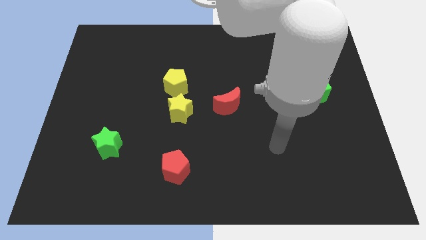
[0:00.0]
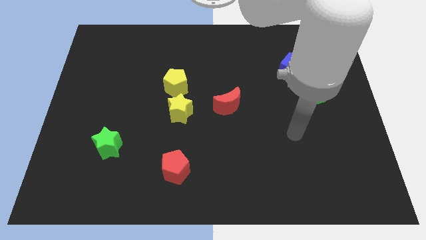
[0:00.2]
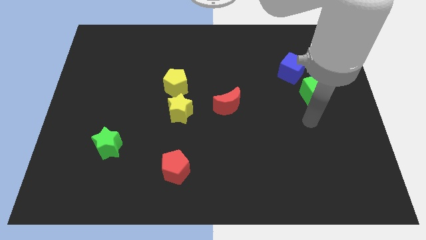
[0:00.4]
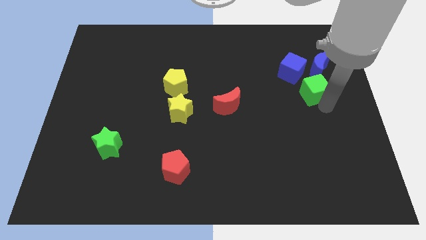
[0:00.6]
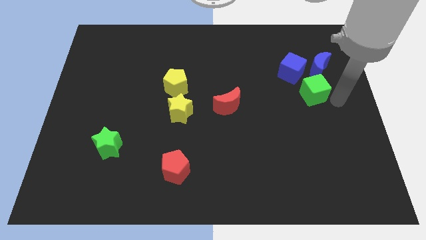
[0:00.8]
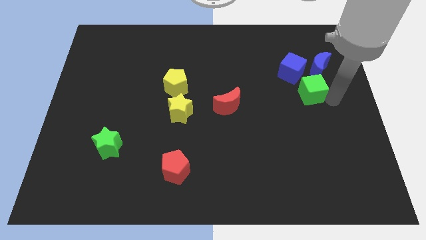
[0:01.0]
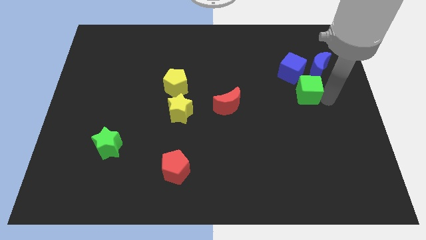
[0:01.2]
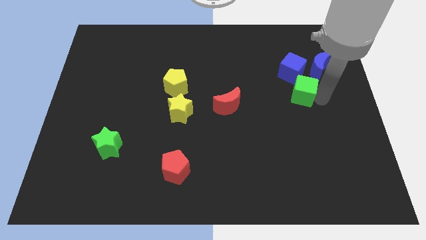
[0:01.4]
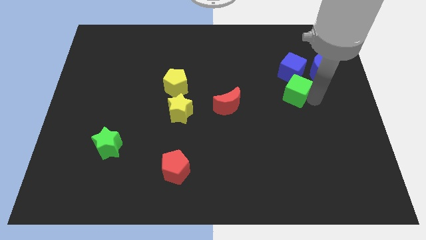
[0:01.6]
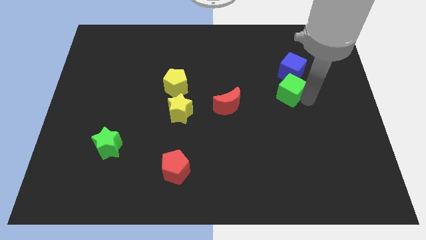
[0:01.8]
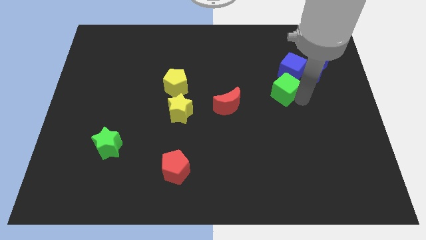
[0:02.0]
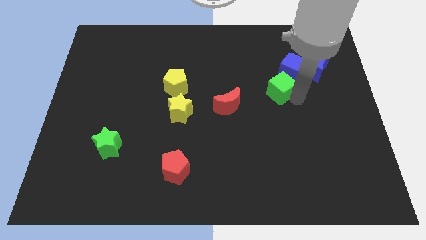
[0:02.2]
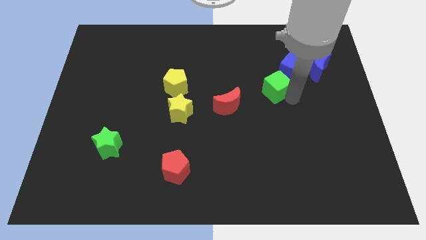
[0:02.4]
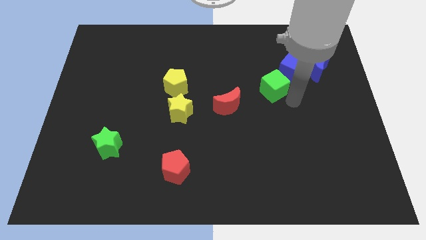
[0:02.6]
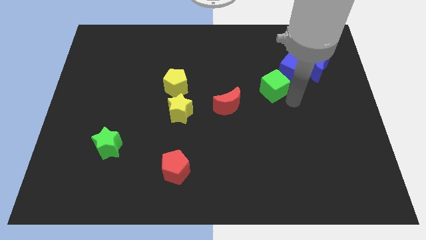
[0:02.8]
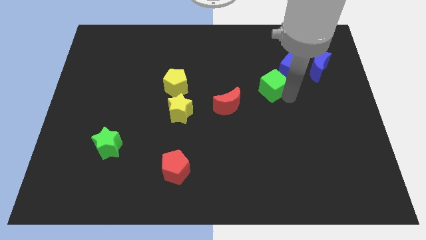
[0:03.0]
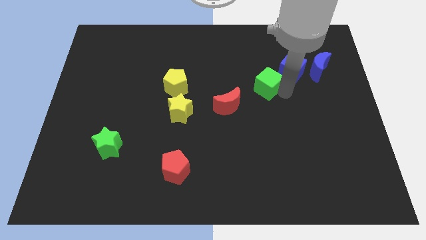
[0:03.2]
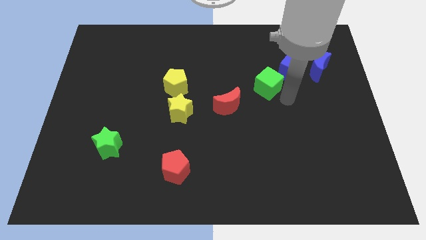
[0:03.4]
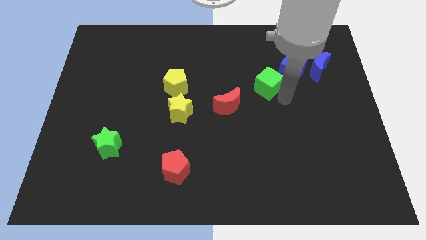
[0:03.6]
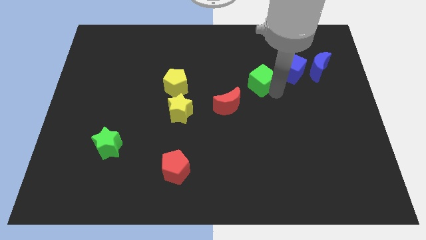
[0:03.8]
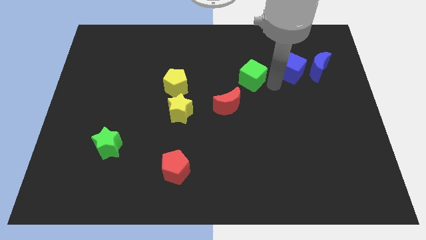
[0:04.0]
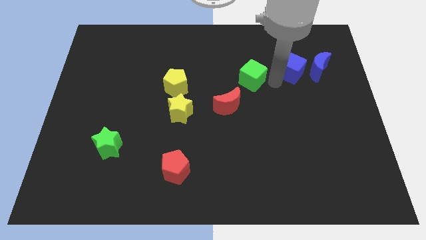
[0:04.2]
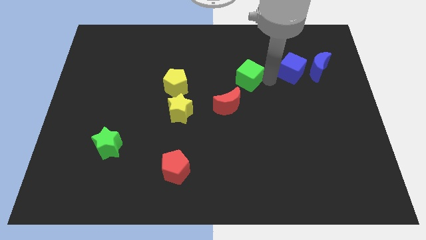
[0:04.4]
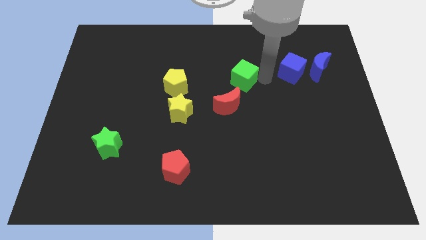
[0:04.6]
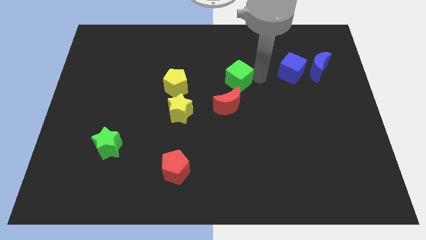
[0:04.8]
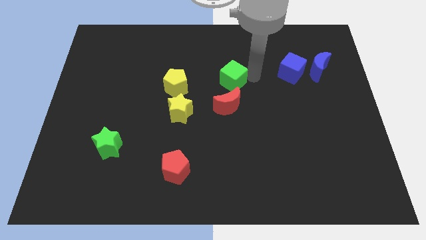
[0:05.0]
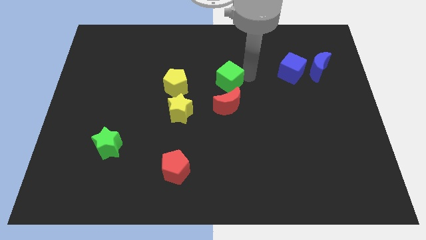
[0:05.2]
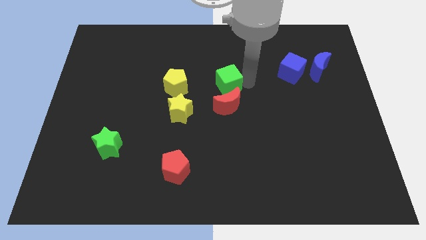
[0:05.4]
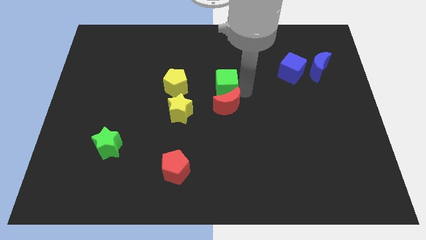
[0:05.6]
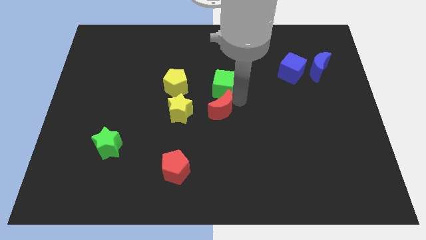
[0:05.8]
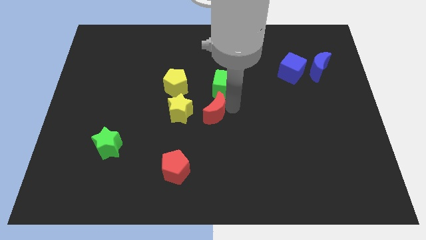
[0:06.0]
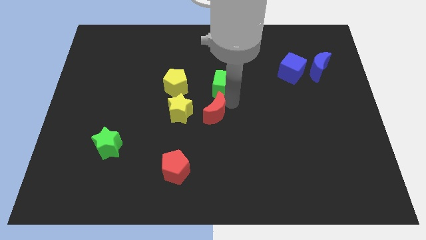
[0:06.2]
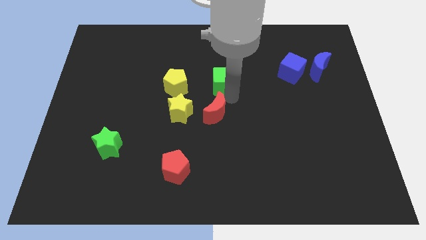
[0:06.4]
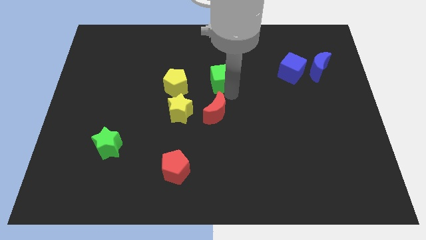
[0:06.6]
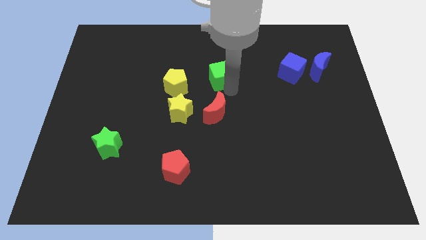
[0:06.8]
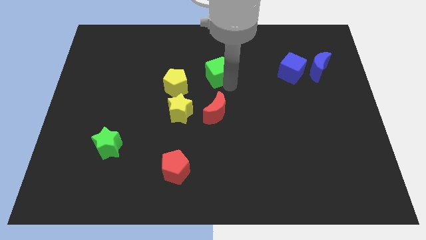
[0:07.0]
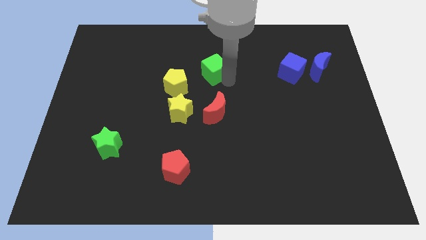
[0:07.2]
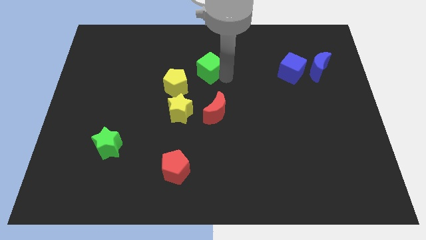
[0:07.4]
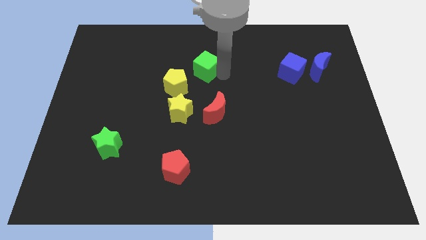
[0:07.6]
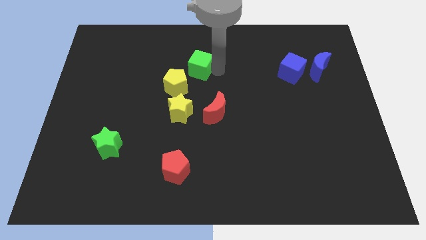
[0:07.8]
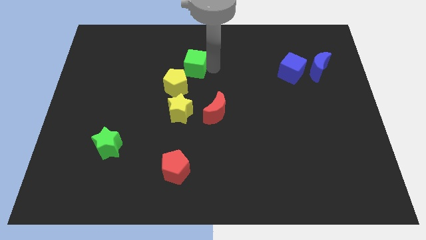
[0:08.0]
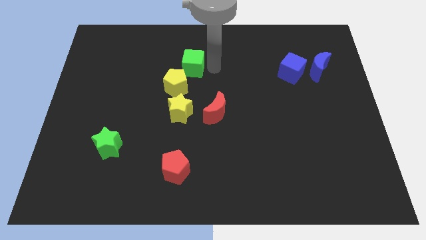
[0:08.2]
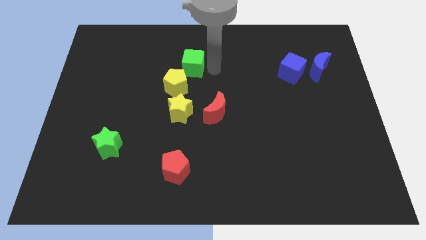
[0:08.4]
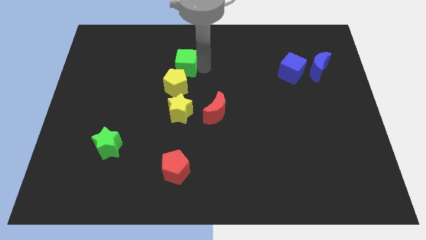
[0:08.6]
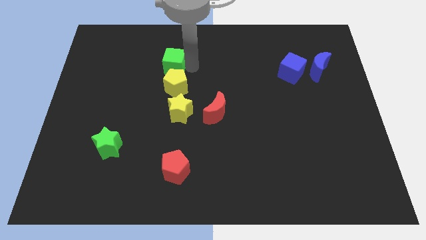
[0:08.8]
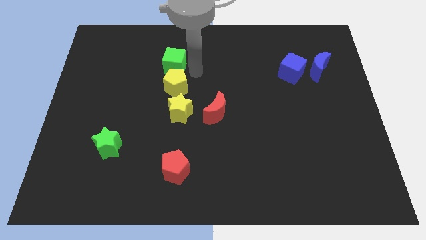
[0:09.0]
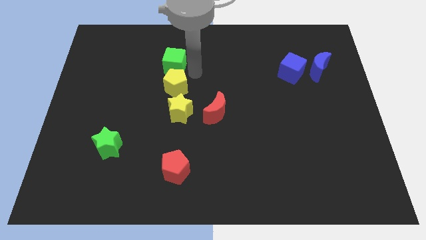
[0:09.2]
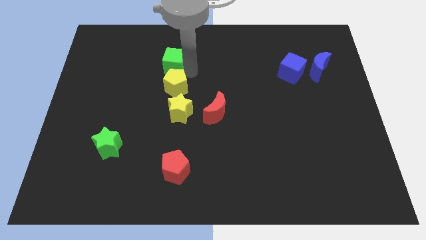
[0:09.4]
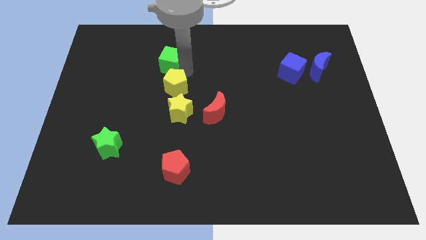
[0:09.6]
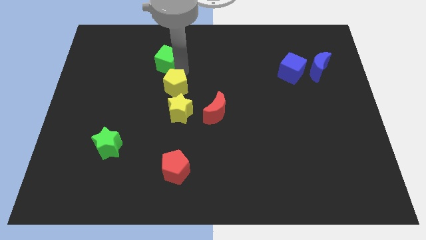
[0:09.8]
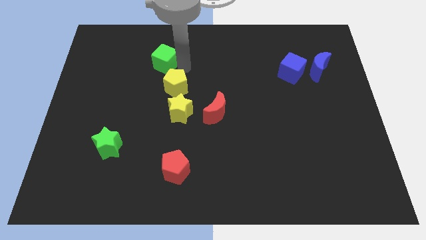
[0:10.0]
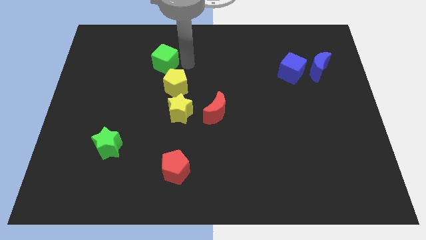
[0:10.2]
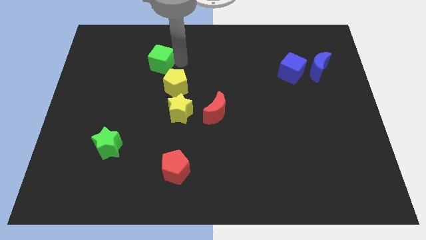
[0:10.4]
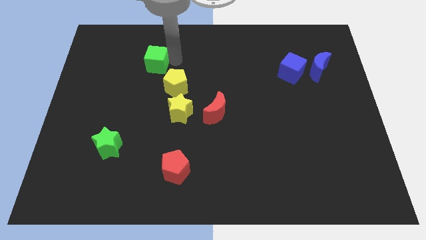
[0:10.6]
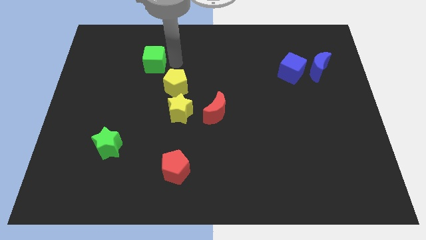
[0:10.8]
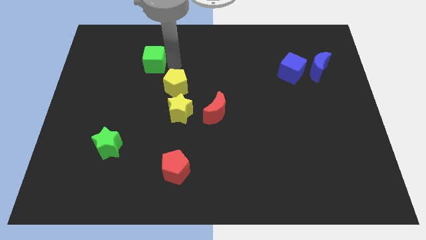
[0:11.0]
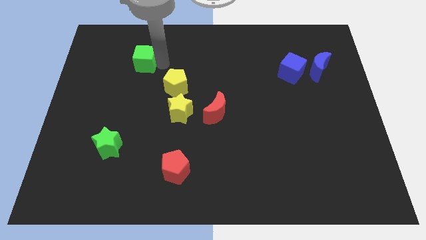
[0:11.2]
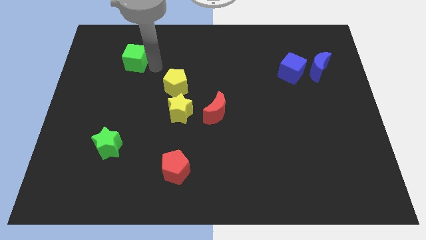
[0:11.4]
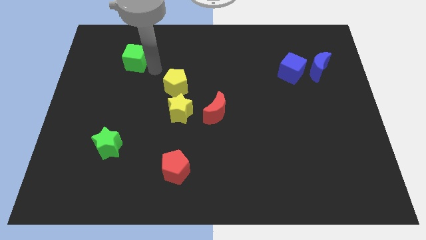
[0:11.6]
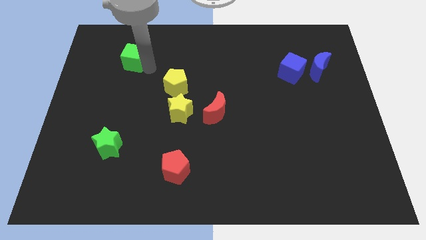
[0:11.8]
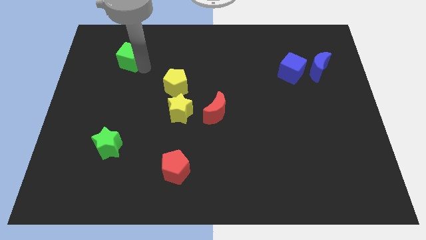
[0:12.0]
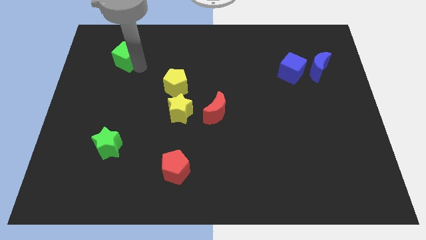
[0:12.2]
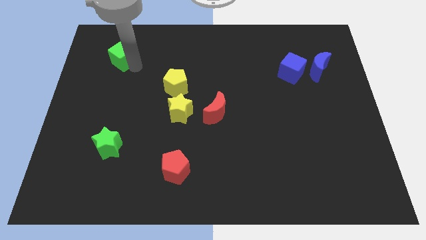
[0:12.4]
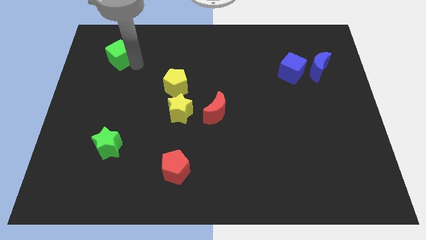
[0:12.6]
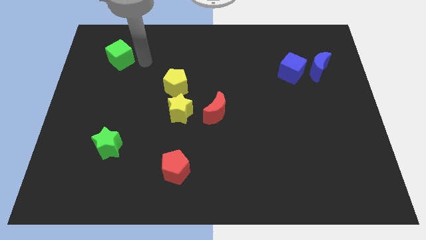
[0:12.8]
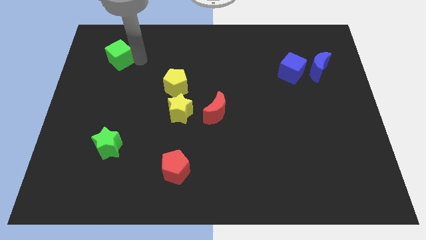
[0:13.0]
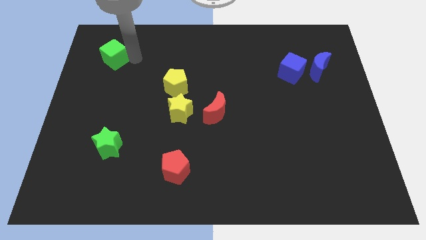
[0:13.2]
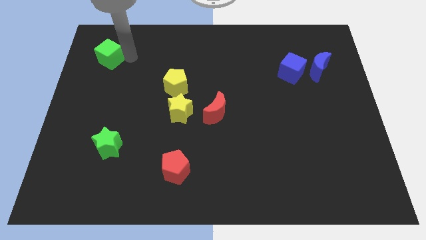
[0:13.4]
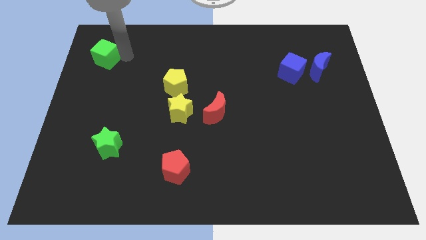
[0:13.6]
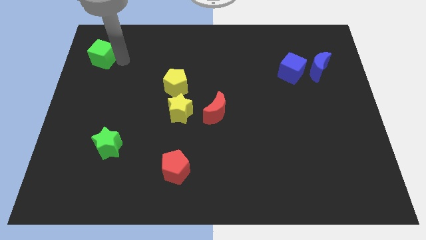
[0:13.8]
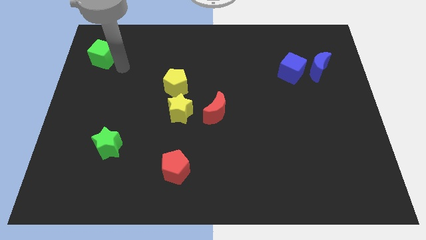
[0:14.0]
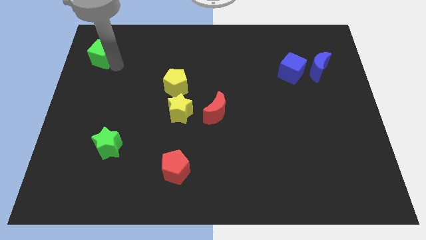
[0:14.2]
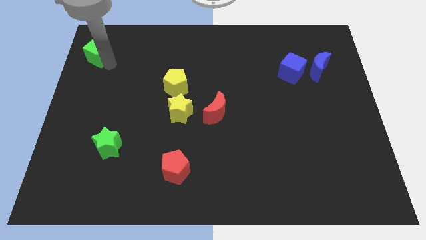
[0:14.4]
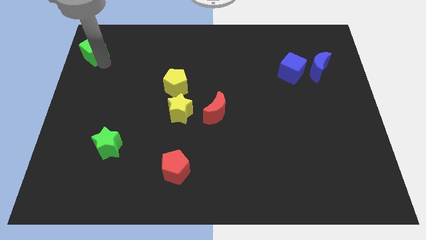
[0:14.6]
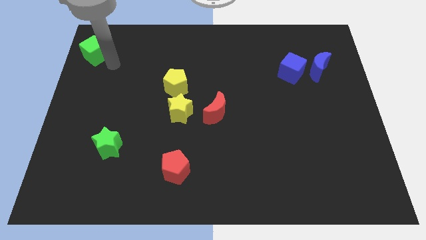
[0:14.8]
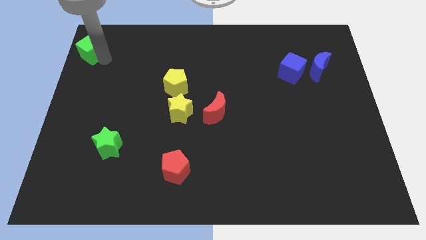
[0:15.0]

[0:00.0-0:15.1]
slide the green cube to the top left
